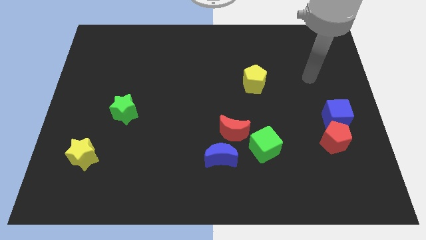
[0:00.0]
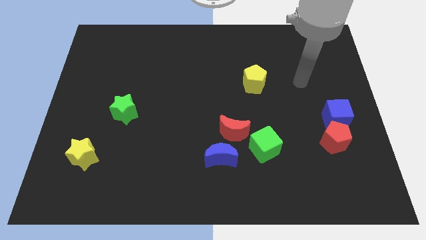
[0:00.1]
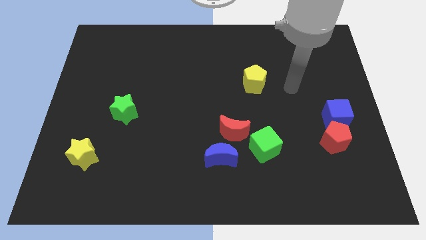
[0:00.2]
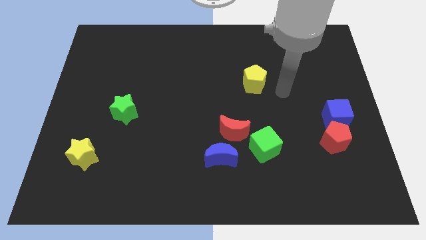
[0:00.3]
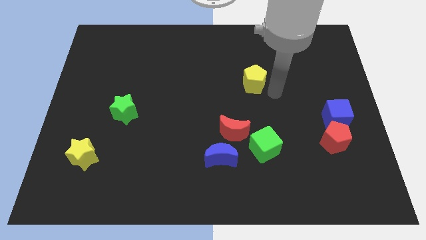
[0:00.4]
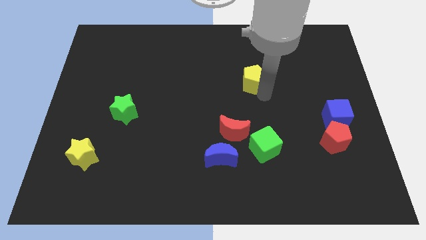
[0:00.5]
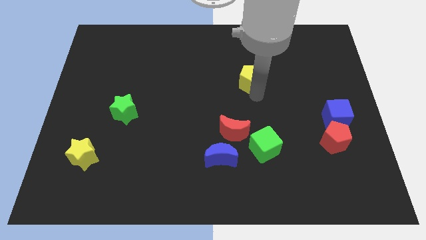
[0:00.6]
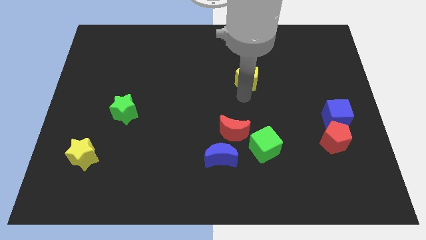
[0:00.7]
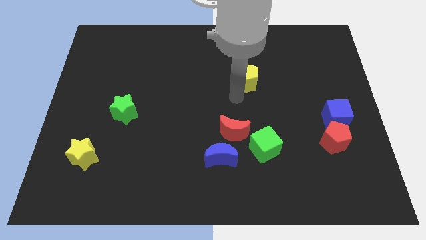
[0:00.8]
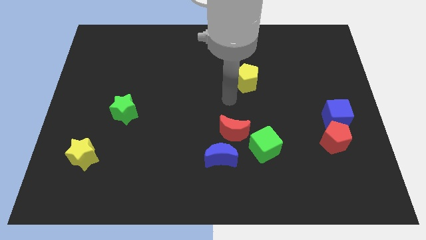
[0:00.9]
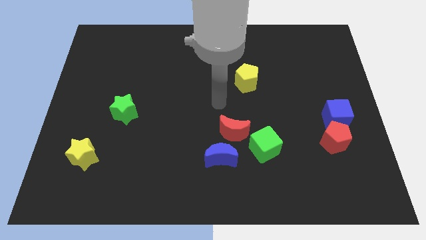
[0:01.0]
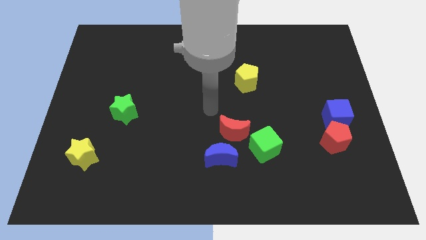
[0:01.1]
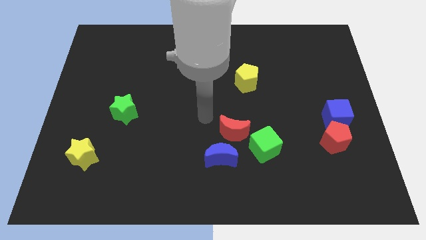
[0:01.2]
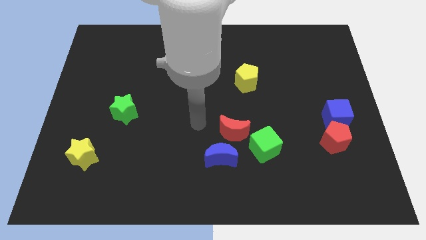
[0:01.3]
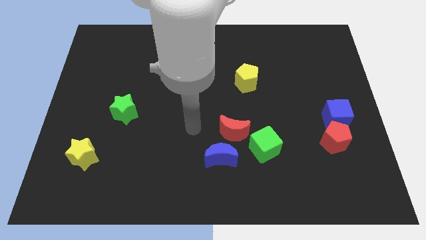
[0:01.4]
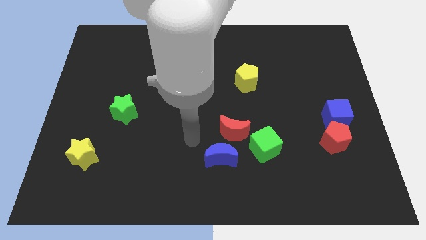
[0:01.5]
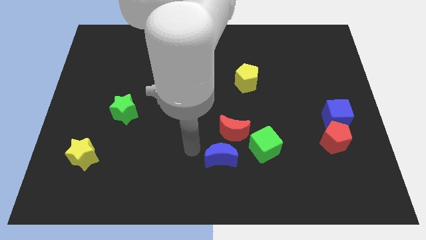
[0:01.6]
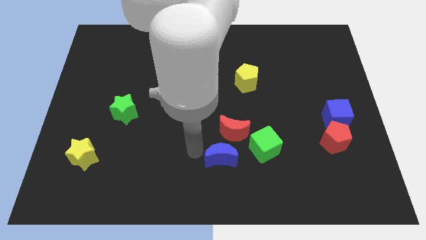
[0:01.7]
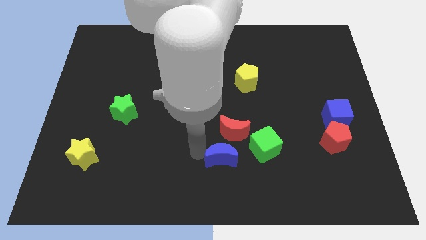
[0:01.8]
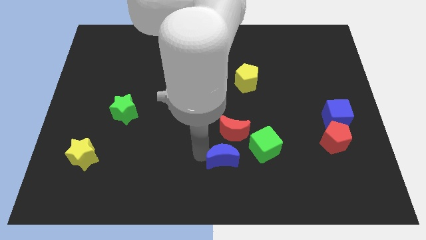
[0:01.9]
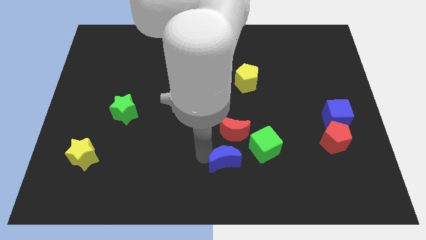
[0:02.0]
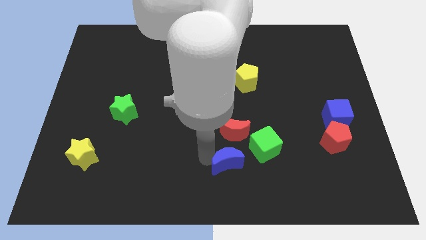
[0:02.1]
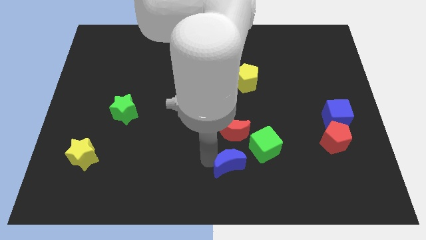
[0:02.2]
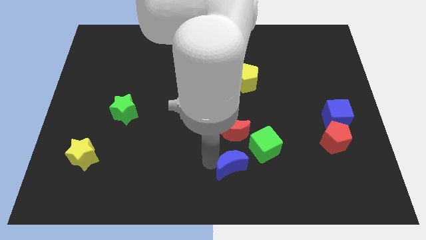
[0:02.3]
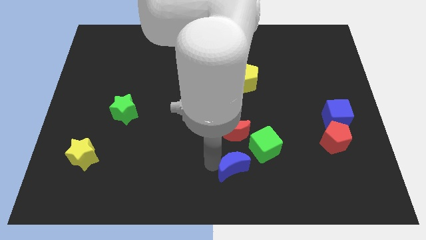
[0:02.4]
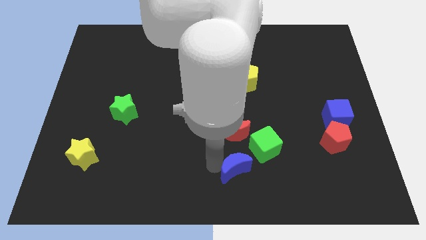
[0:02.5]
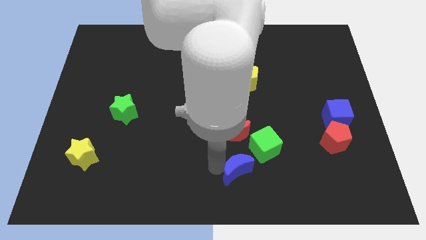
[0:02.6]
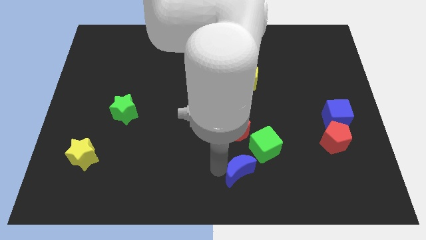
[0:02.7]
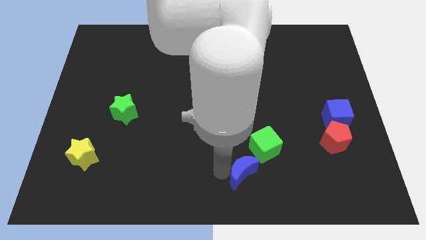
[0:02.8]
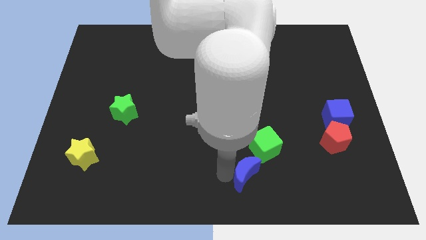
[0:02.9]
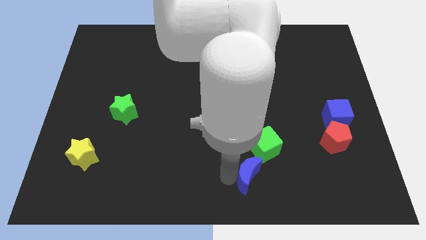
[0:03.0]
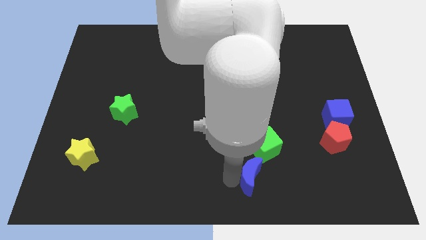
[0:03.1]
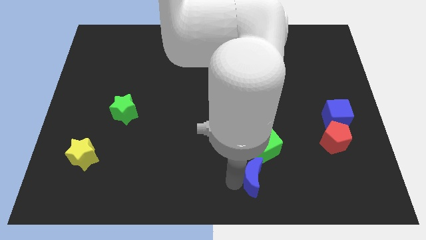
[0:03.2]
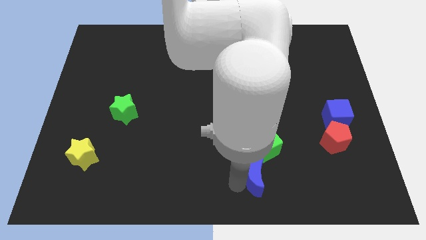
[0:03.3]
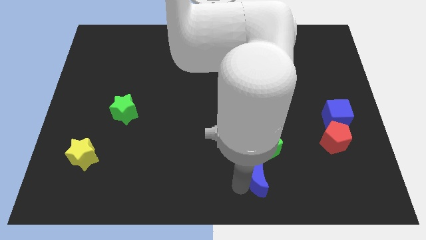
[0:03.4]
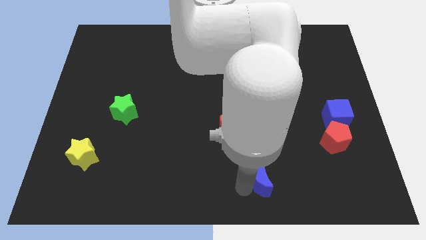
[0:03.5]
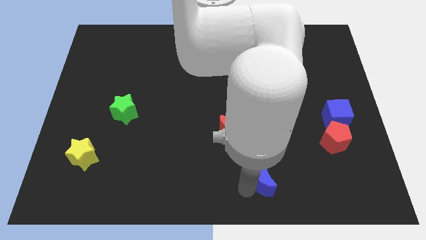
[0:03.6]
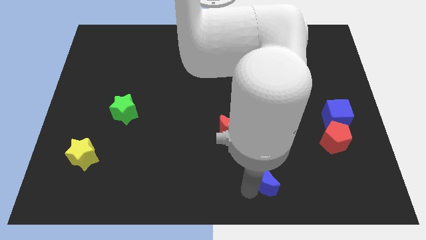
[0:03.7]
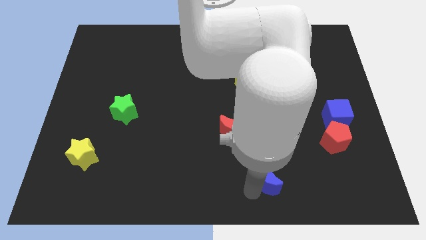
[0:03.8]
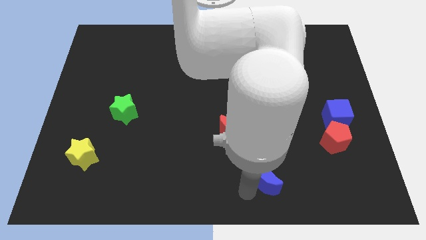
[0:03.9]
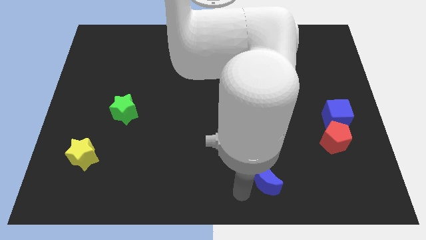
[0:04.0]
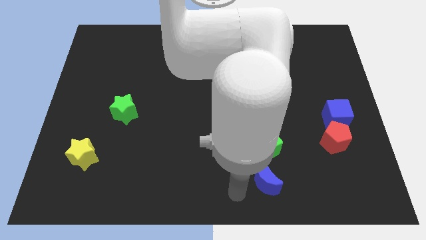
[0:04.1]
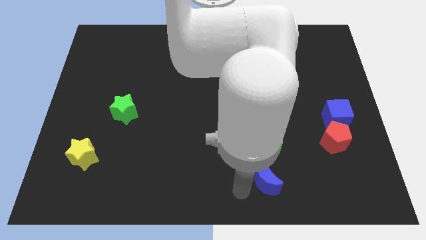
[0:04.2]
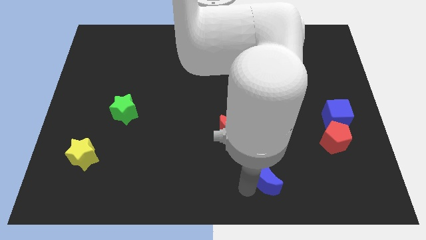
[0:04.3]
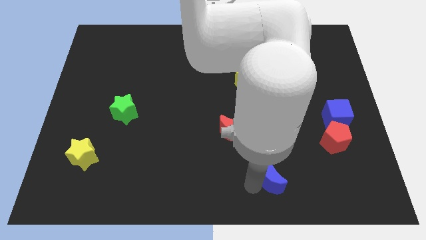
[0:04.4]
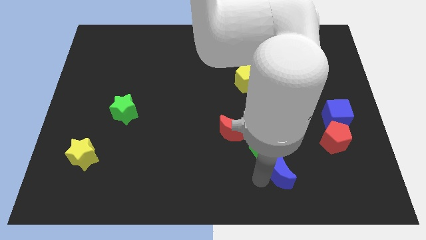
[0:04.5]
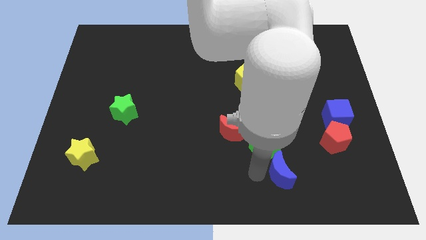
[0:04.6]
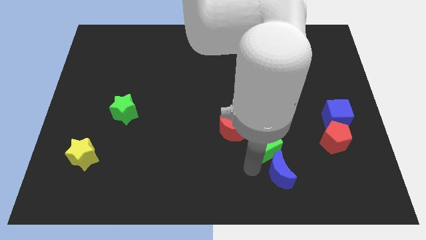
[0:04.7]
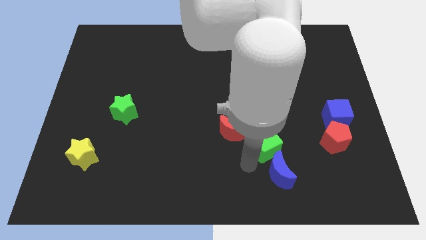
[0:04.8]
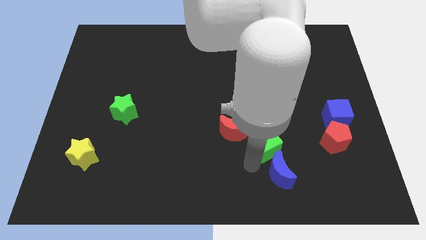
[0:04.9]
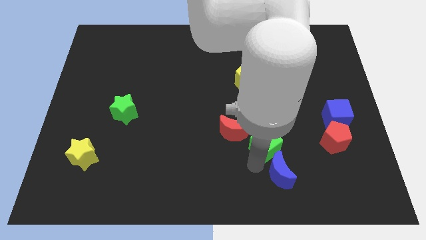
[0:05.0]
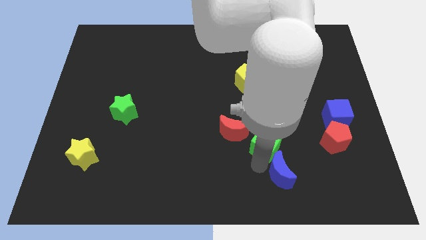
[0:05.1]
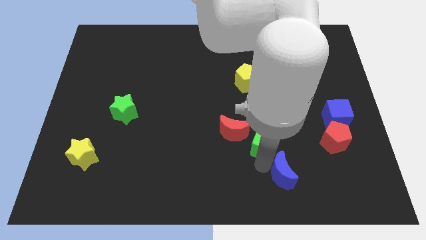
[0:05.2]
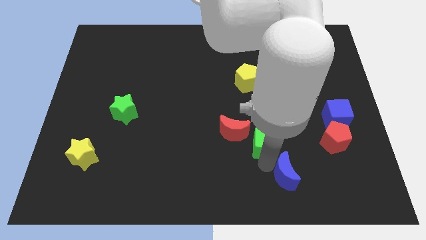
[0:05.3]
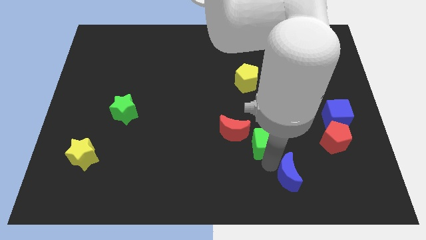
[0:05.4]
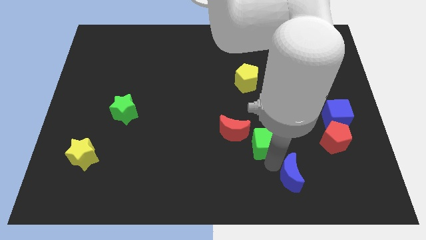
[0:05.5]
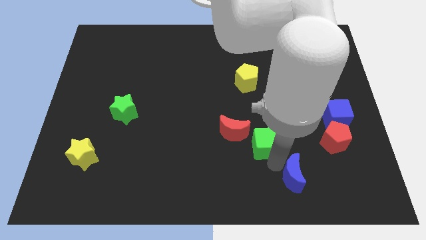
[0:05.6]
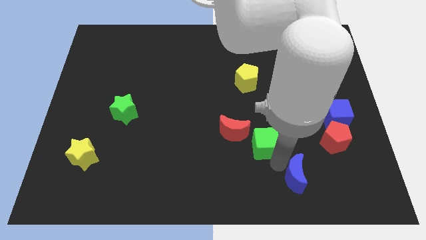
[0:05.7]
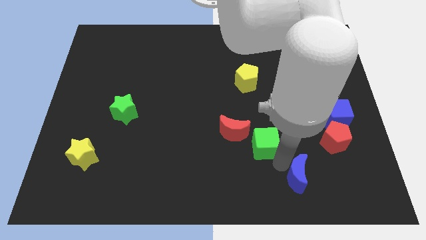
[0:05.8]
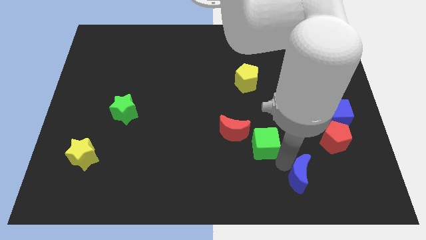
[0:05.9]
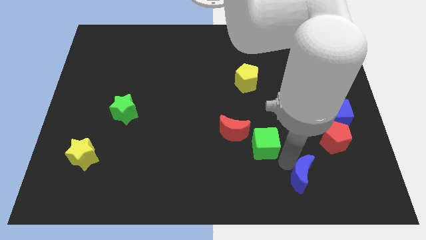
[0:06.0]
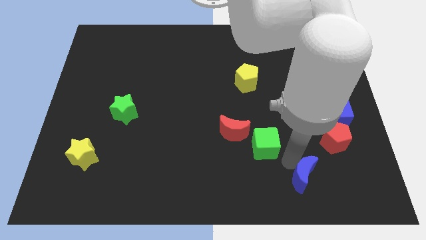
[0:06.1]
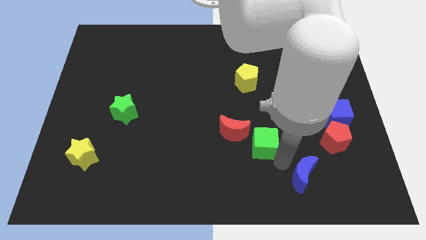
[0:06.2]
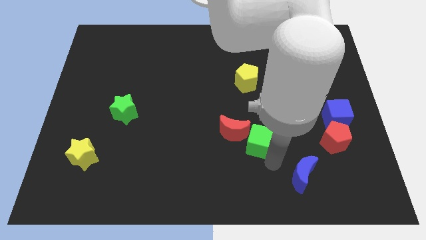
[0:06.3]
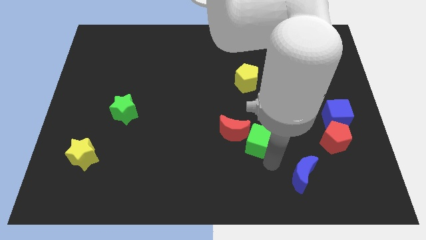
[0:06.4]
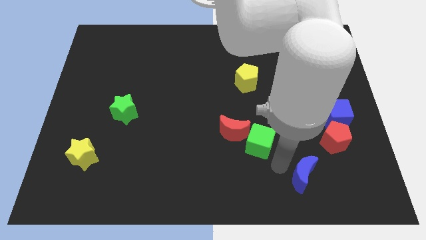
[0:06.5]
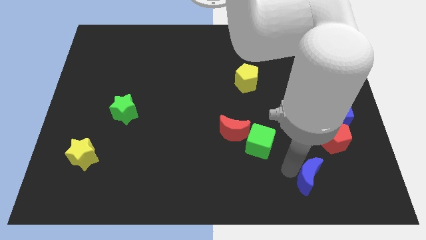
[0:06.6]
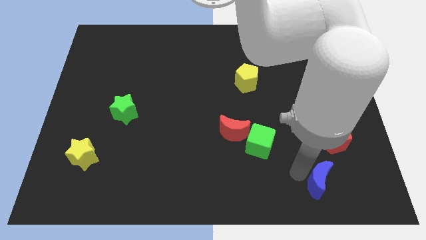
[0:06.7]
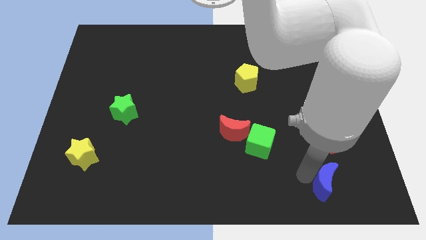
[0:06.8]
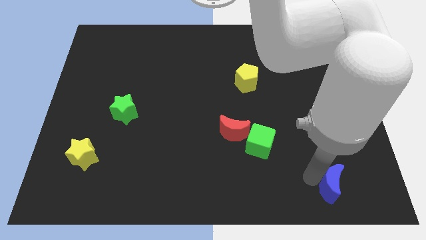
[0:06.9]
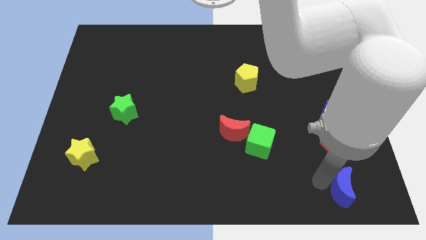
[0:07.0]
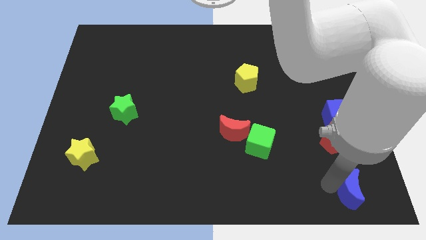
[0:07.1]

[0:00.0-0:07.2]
slide the blue moon to the bottom right of the board
